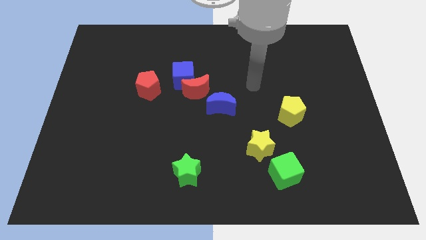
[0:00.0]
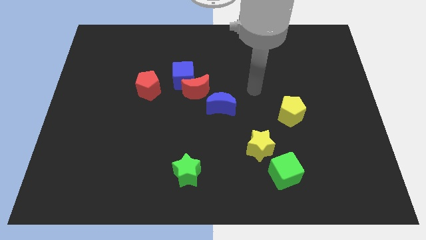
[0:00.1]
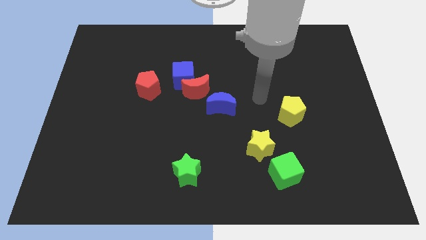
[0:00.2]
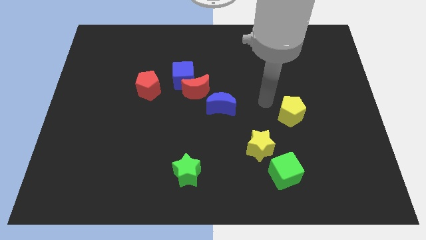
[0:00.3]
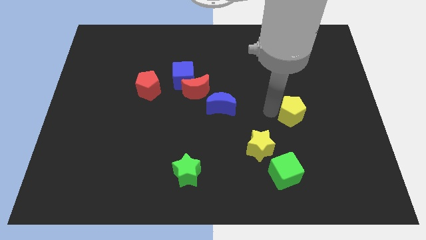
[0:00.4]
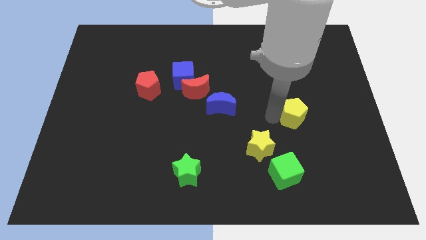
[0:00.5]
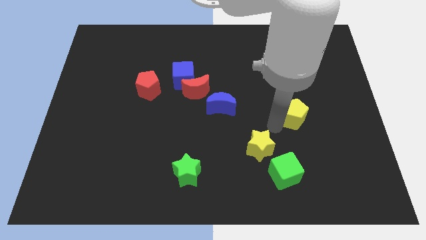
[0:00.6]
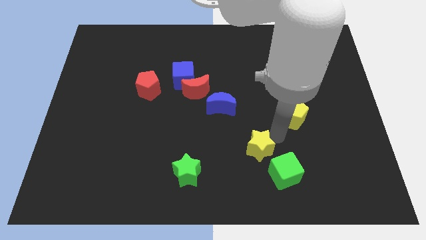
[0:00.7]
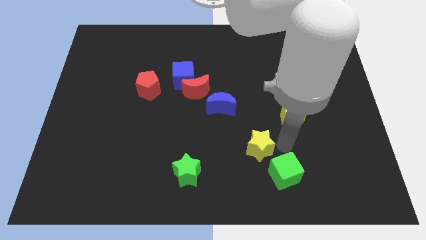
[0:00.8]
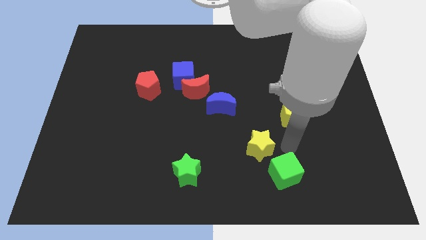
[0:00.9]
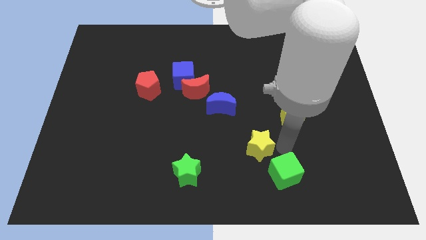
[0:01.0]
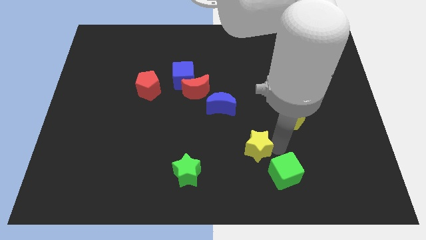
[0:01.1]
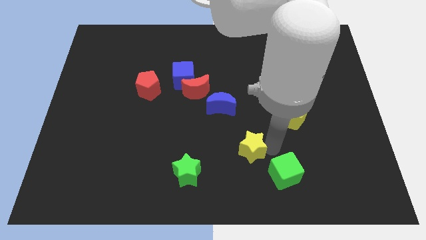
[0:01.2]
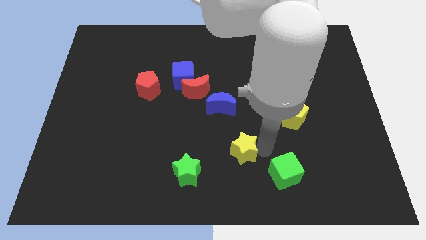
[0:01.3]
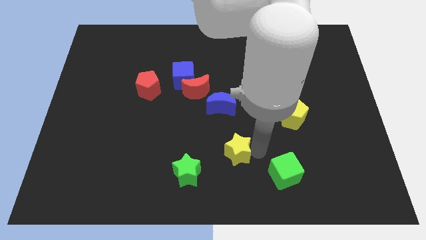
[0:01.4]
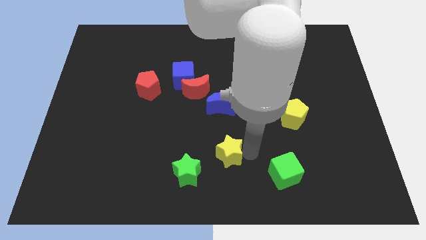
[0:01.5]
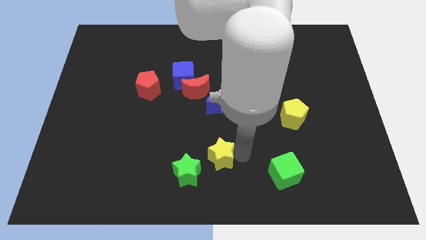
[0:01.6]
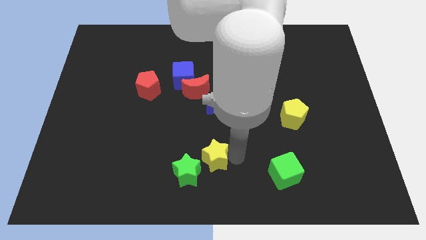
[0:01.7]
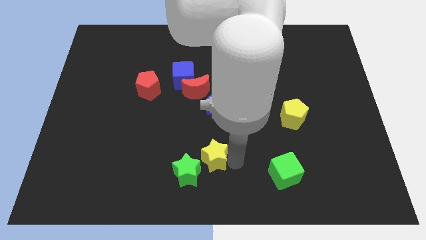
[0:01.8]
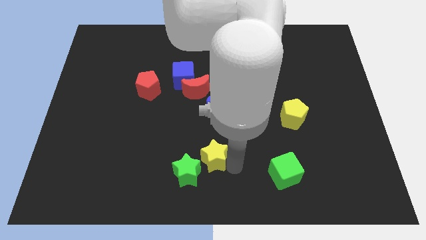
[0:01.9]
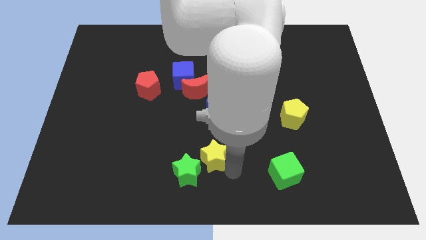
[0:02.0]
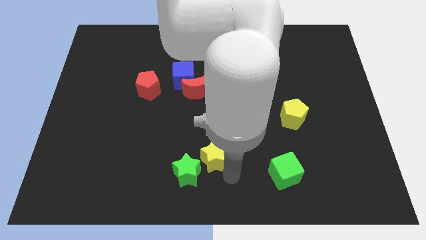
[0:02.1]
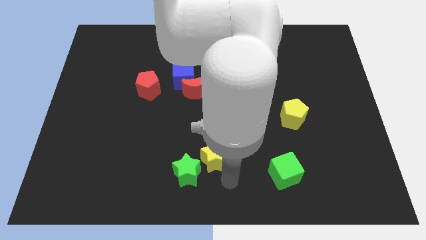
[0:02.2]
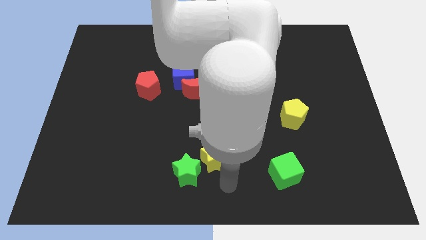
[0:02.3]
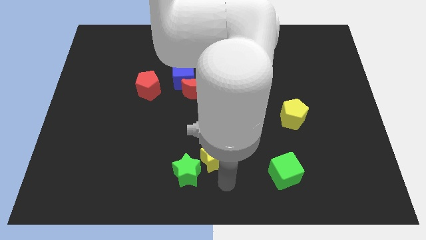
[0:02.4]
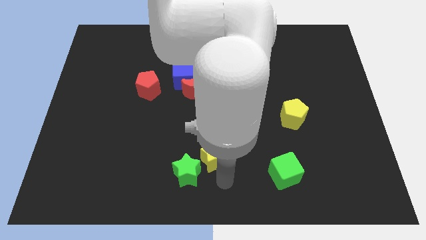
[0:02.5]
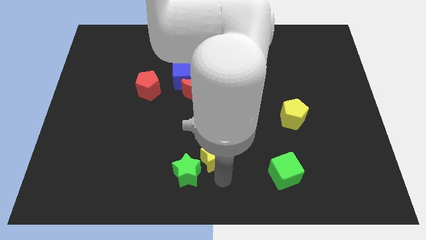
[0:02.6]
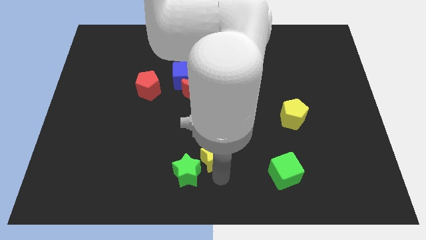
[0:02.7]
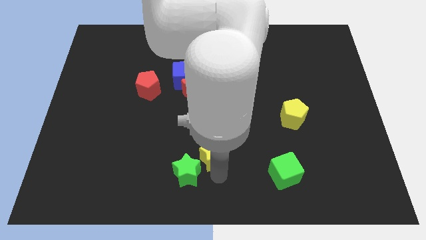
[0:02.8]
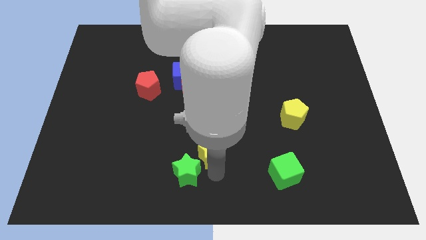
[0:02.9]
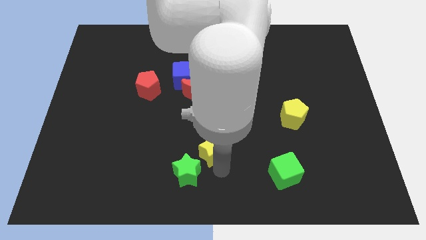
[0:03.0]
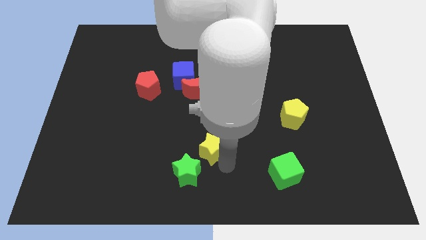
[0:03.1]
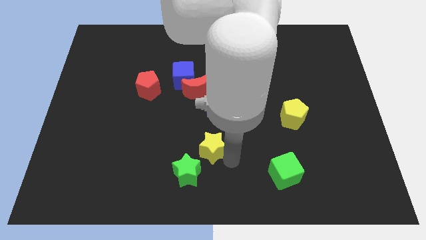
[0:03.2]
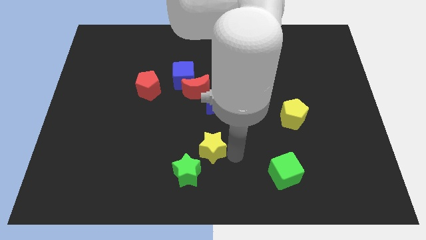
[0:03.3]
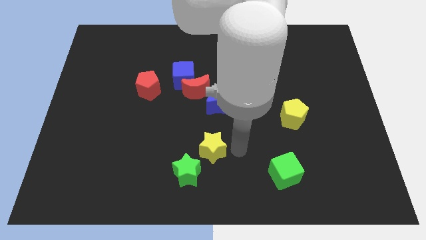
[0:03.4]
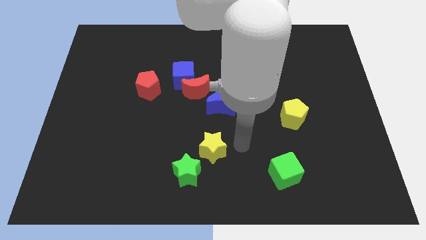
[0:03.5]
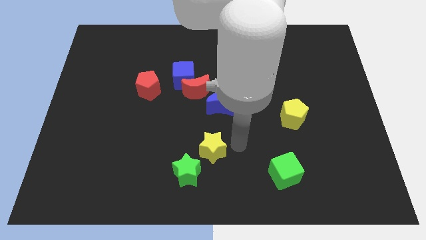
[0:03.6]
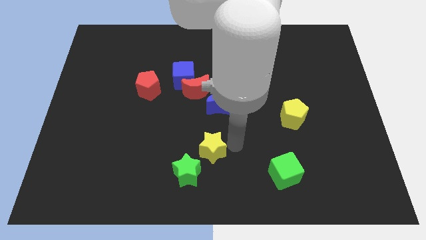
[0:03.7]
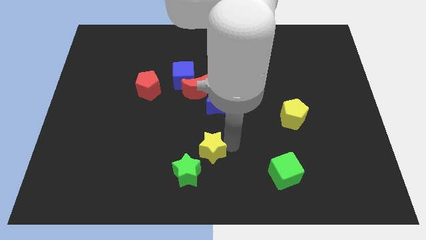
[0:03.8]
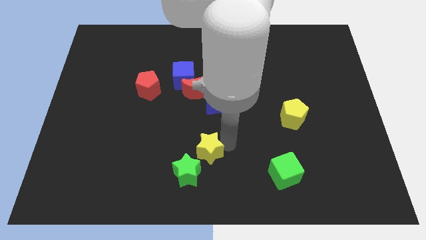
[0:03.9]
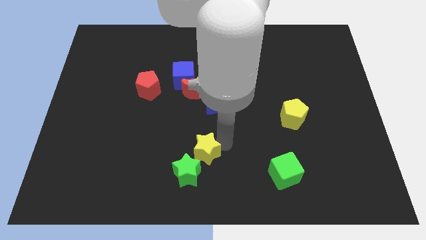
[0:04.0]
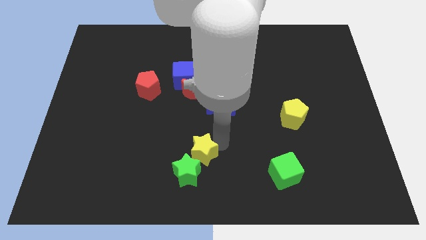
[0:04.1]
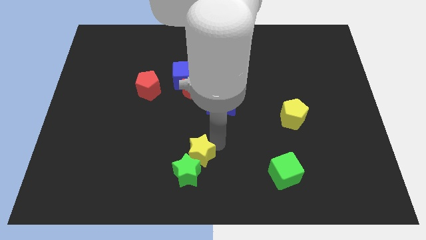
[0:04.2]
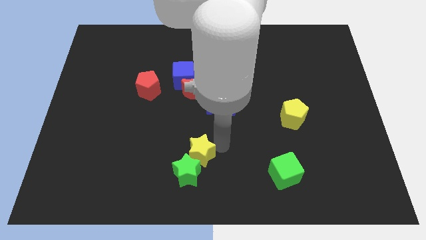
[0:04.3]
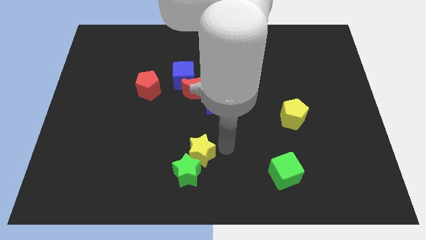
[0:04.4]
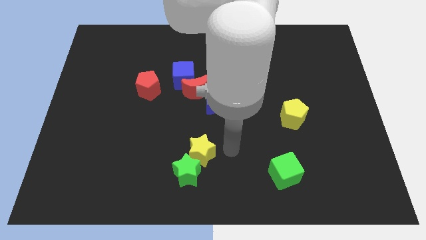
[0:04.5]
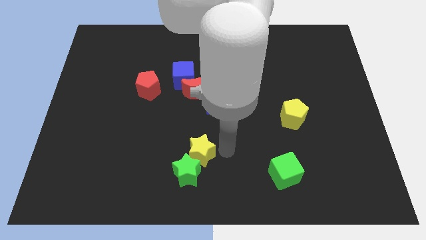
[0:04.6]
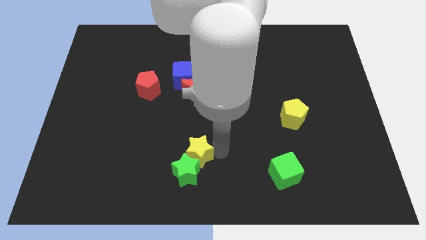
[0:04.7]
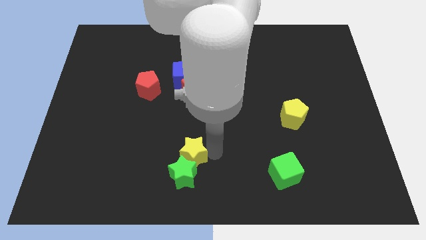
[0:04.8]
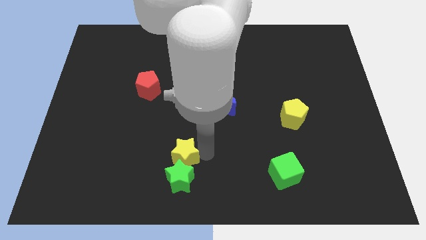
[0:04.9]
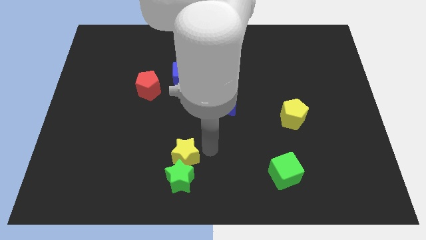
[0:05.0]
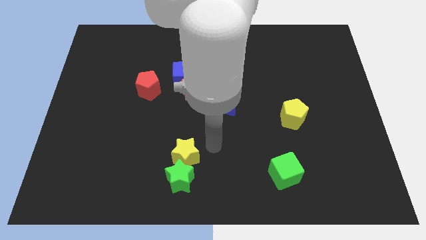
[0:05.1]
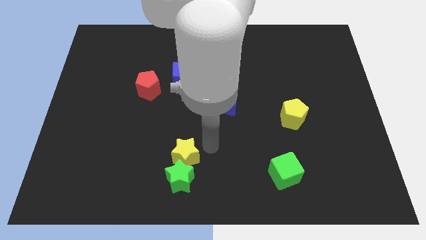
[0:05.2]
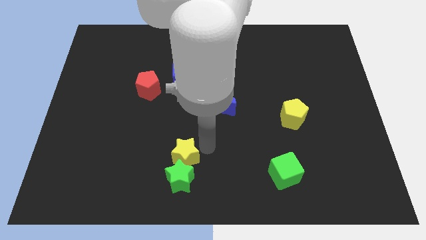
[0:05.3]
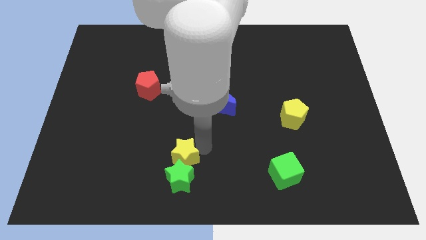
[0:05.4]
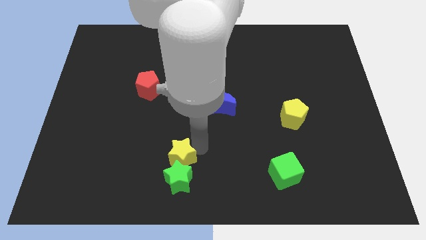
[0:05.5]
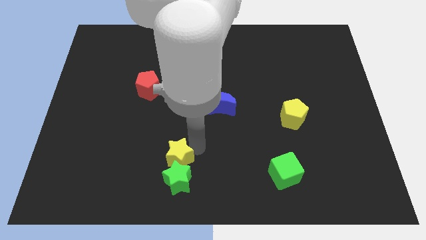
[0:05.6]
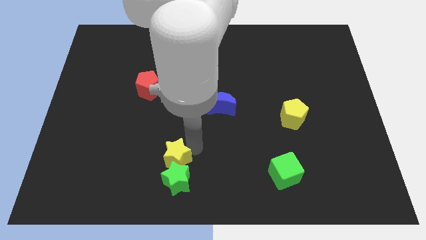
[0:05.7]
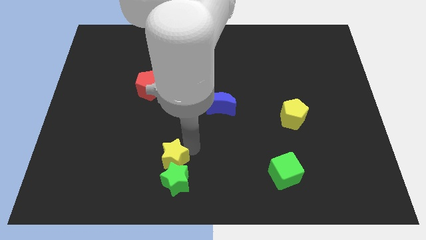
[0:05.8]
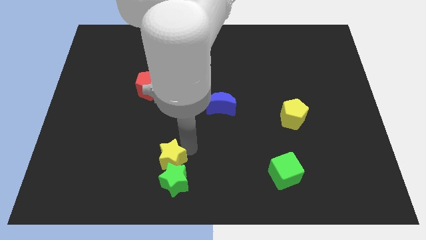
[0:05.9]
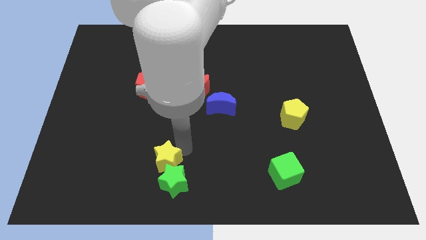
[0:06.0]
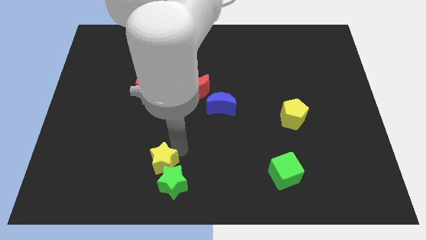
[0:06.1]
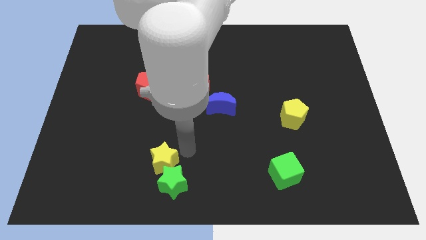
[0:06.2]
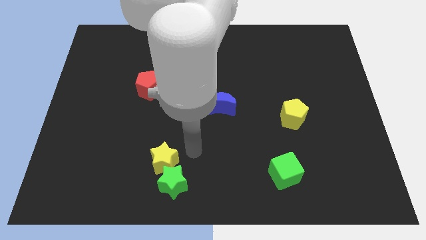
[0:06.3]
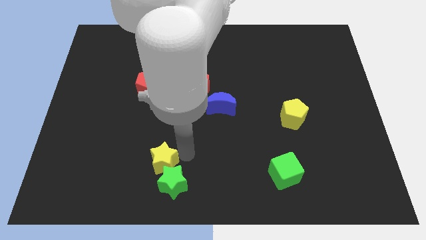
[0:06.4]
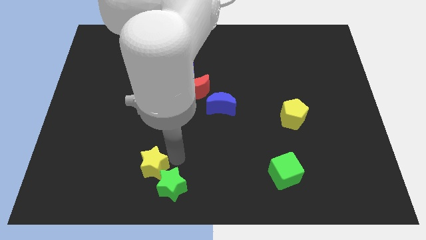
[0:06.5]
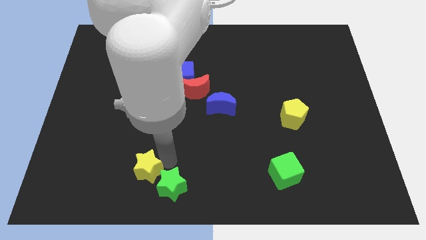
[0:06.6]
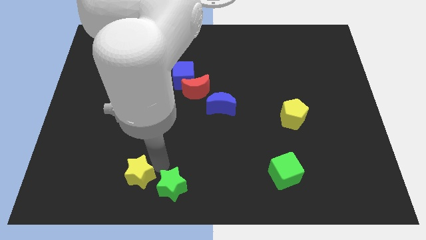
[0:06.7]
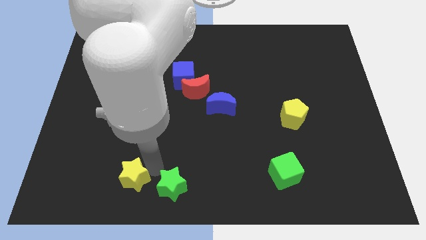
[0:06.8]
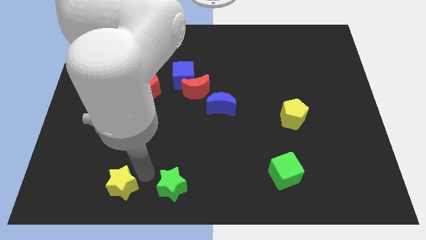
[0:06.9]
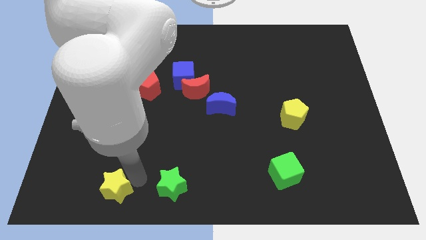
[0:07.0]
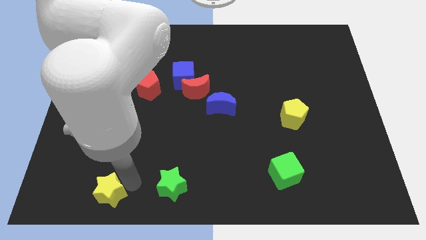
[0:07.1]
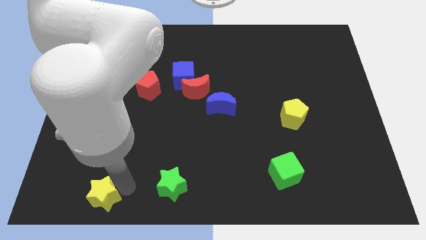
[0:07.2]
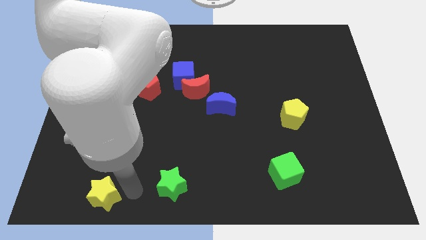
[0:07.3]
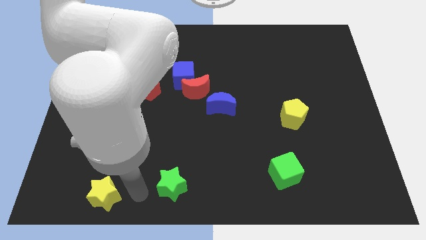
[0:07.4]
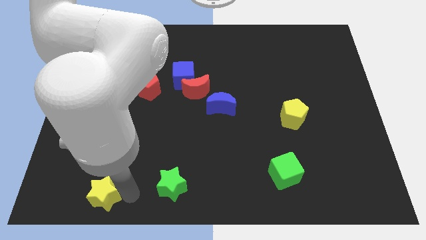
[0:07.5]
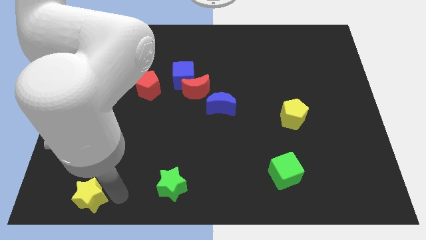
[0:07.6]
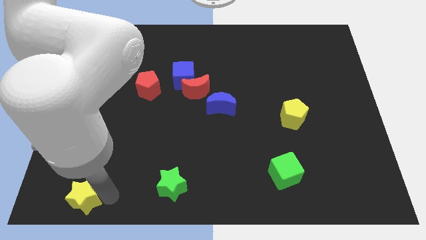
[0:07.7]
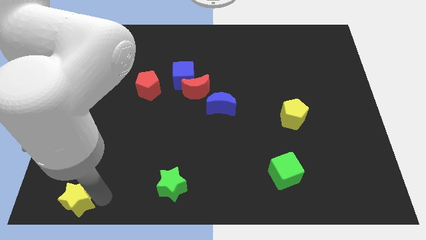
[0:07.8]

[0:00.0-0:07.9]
push the yellow star to the lower left corner
